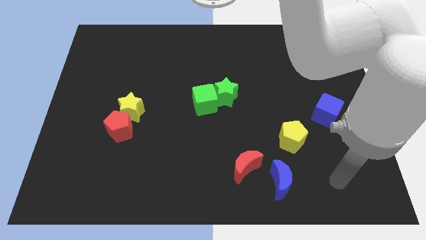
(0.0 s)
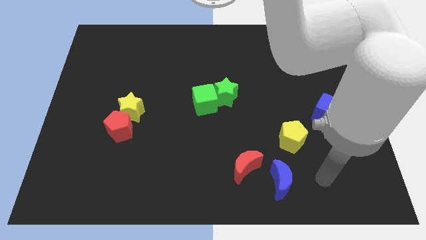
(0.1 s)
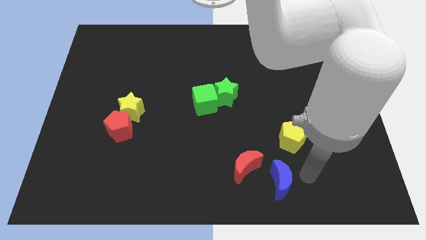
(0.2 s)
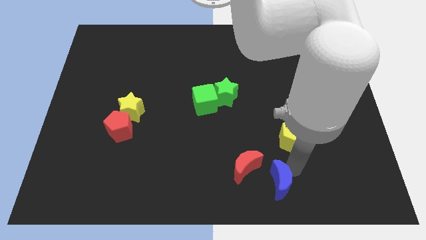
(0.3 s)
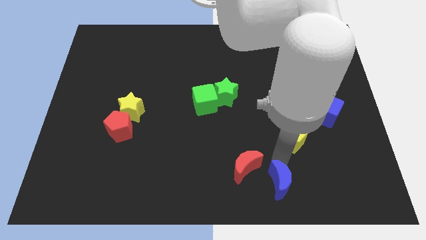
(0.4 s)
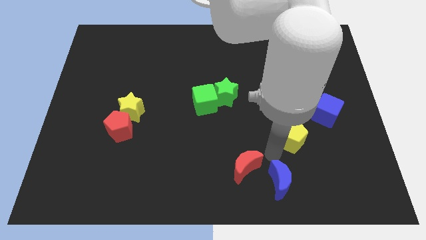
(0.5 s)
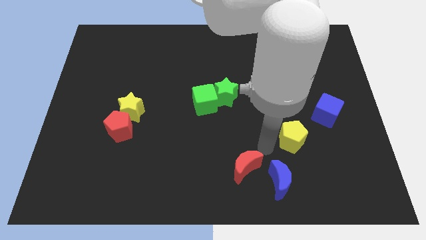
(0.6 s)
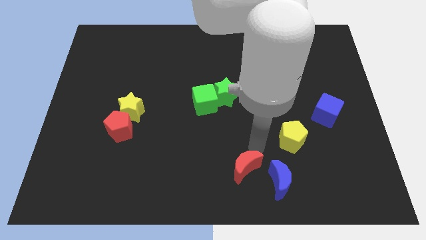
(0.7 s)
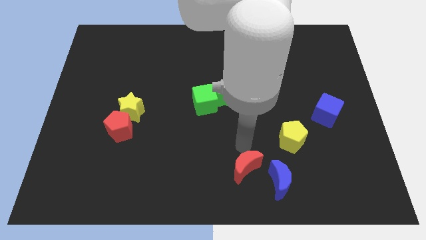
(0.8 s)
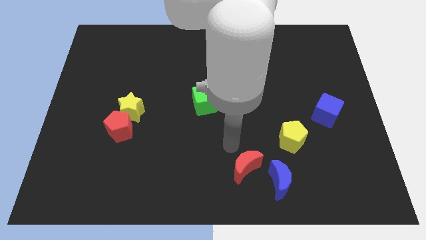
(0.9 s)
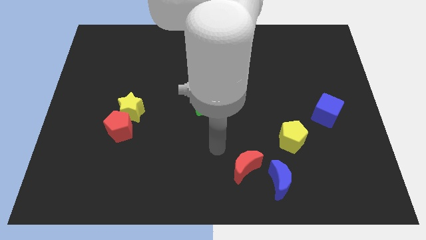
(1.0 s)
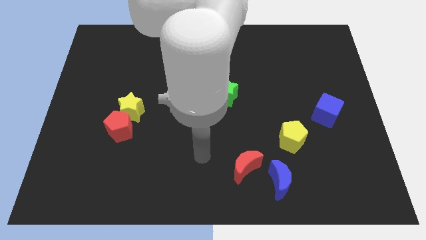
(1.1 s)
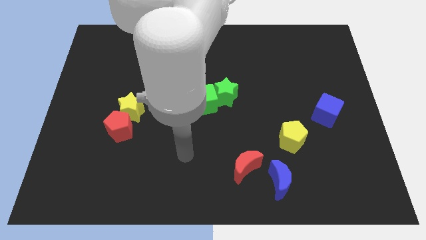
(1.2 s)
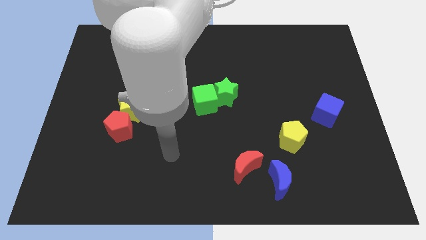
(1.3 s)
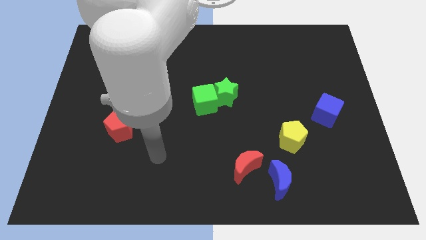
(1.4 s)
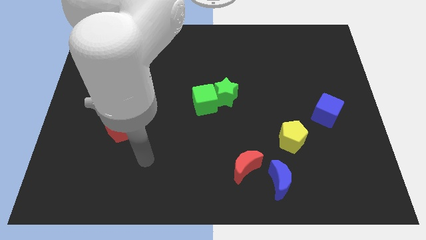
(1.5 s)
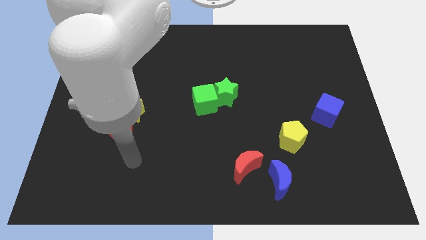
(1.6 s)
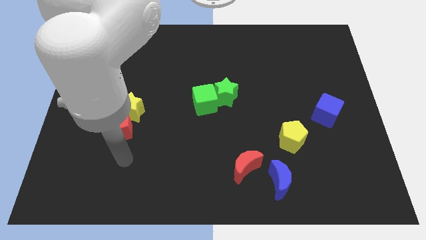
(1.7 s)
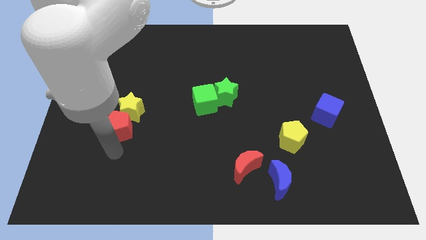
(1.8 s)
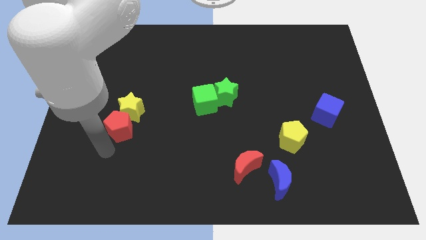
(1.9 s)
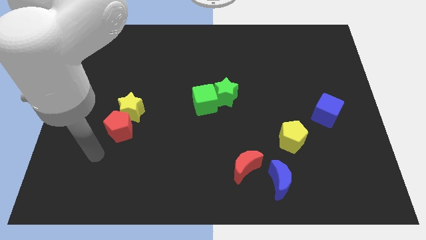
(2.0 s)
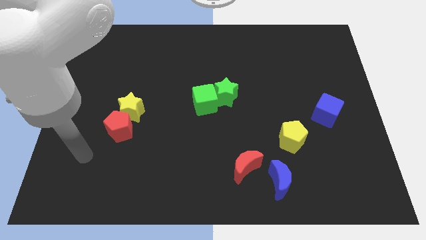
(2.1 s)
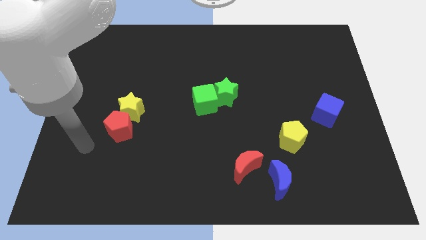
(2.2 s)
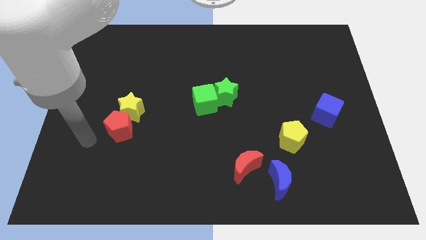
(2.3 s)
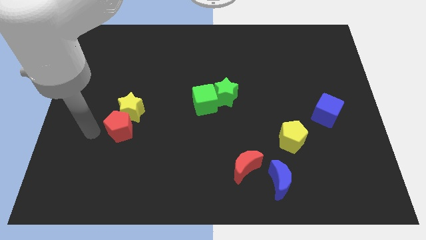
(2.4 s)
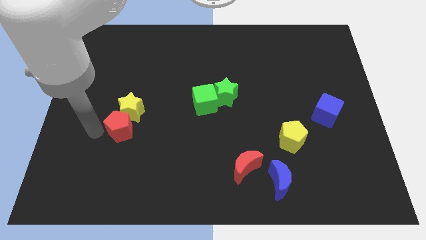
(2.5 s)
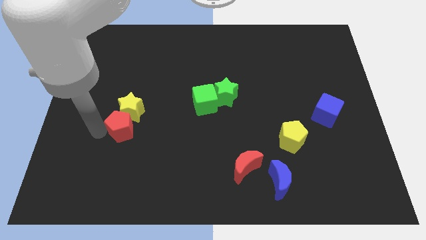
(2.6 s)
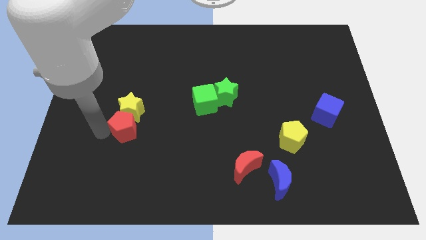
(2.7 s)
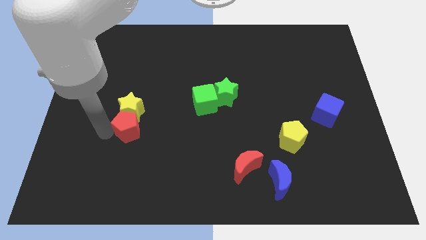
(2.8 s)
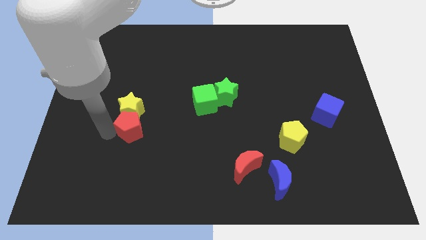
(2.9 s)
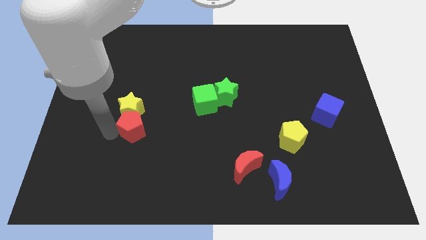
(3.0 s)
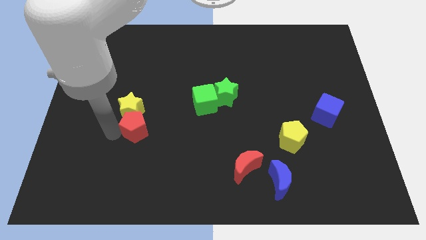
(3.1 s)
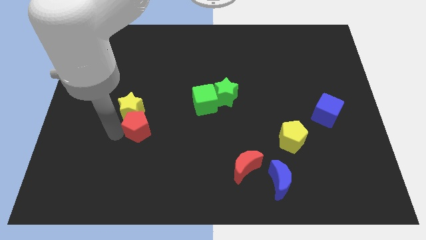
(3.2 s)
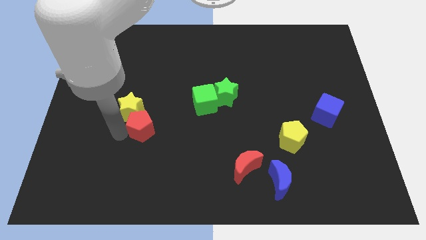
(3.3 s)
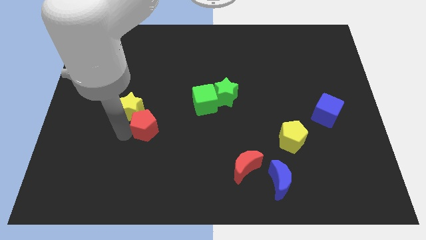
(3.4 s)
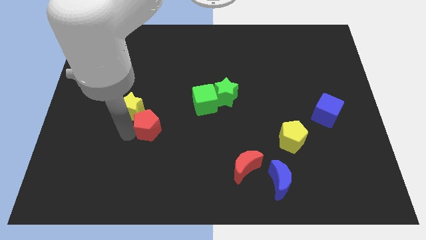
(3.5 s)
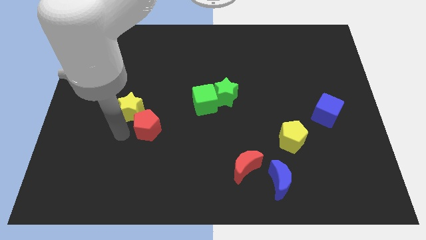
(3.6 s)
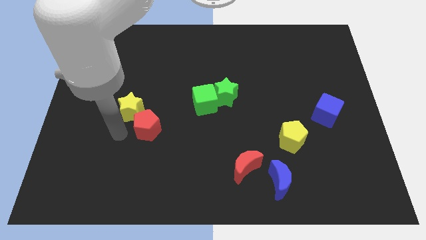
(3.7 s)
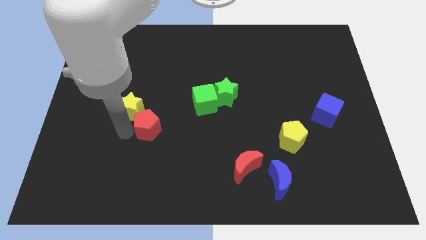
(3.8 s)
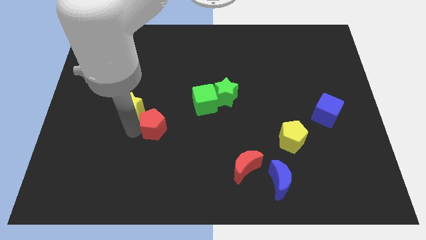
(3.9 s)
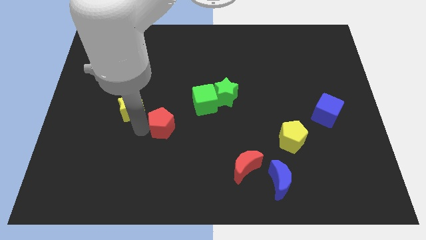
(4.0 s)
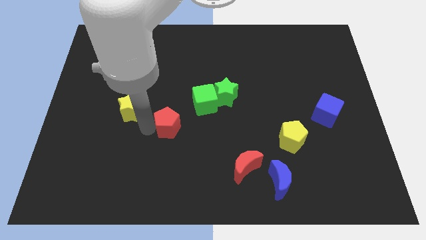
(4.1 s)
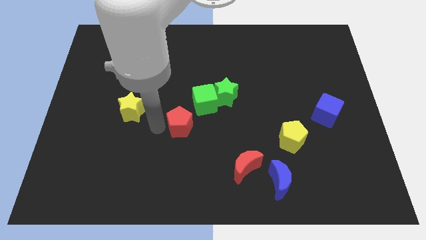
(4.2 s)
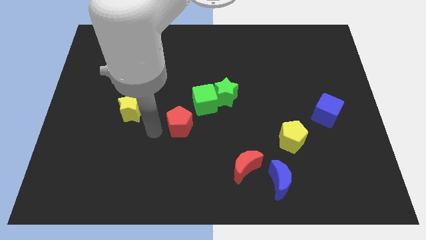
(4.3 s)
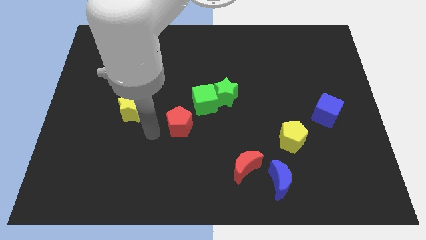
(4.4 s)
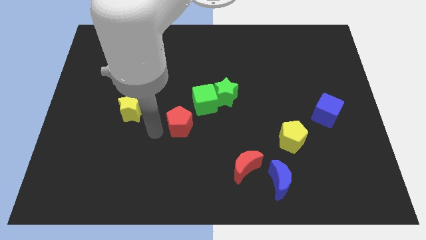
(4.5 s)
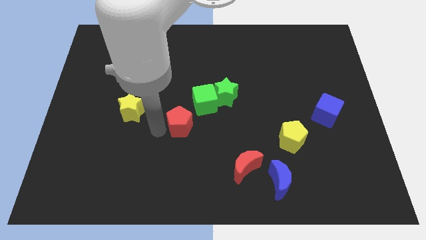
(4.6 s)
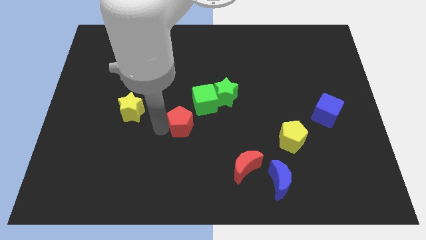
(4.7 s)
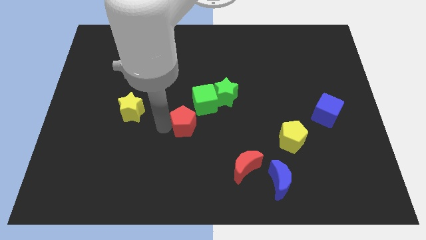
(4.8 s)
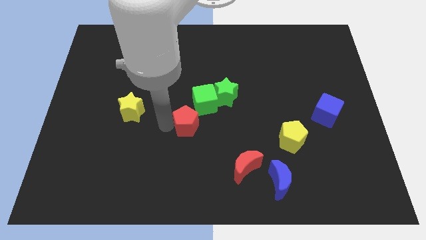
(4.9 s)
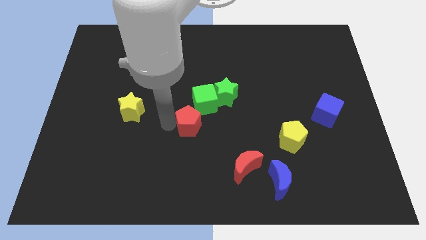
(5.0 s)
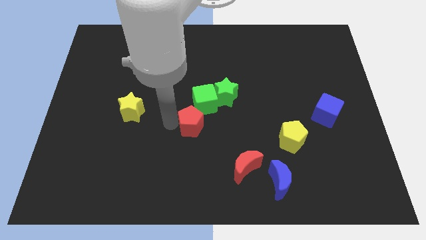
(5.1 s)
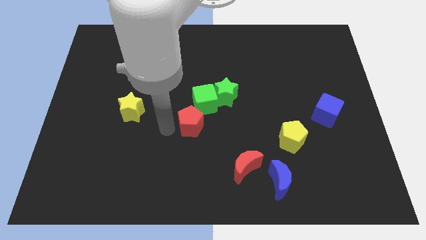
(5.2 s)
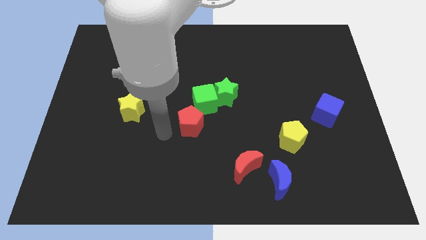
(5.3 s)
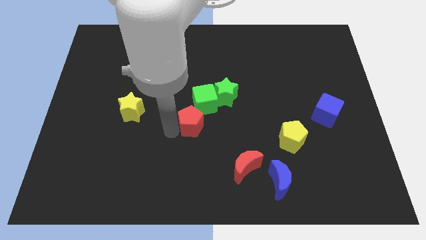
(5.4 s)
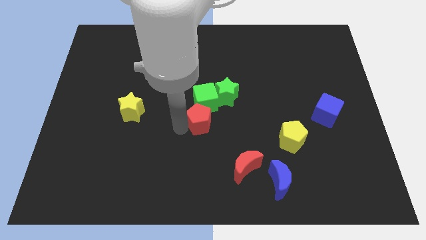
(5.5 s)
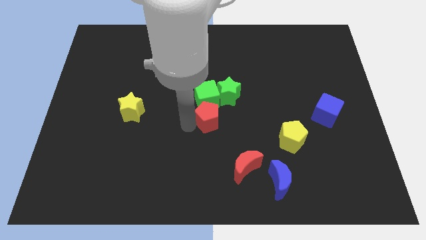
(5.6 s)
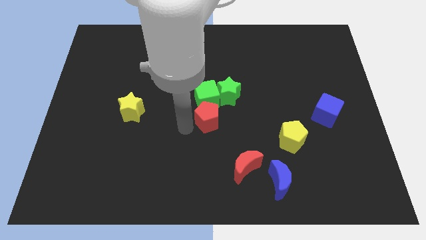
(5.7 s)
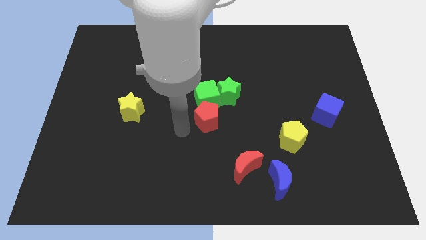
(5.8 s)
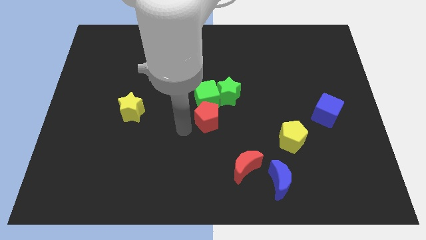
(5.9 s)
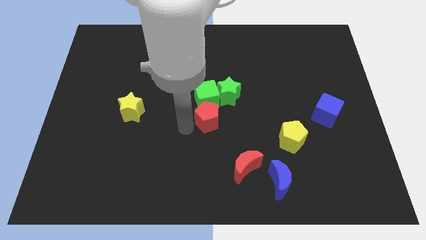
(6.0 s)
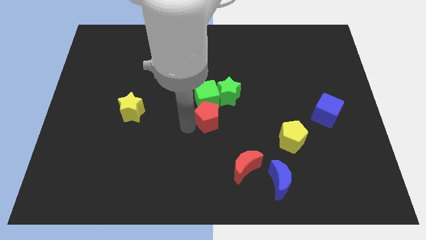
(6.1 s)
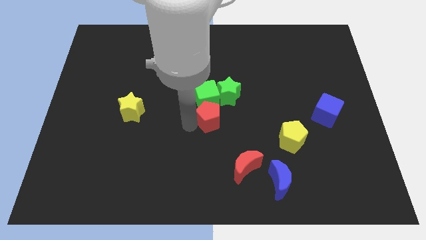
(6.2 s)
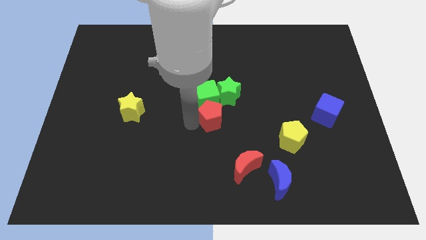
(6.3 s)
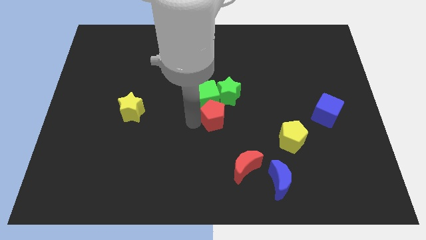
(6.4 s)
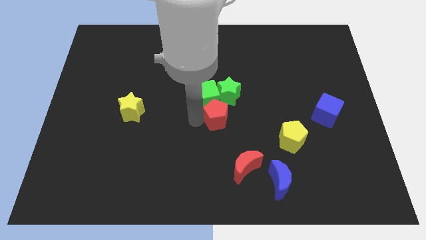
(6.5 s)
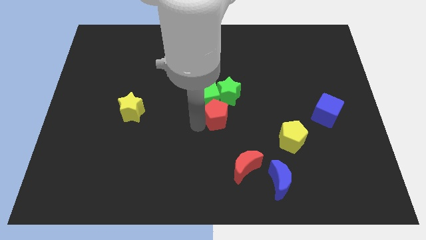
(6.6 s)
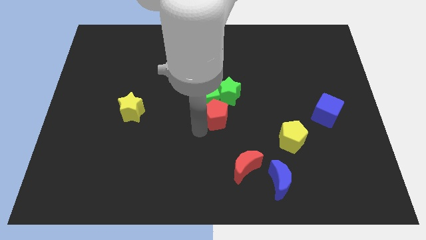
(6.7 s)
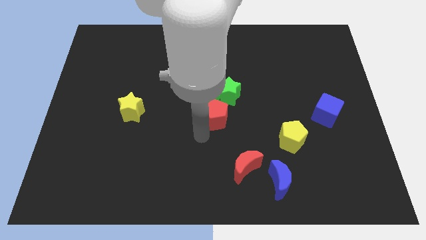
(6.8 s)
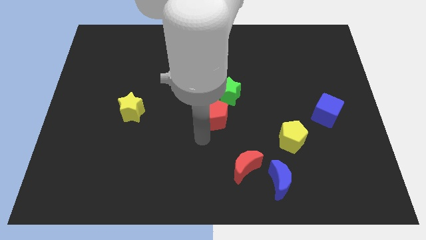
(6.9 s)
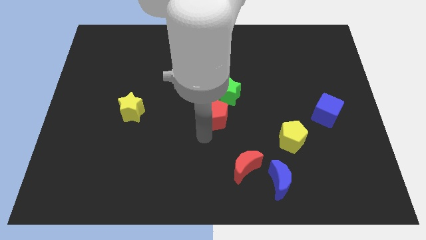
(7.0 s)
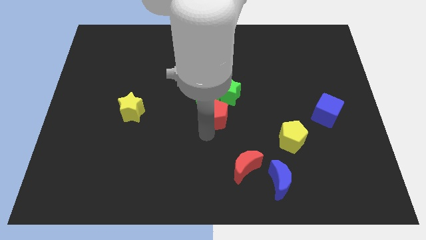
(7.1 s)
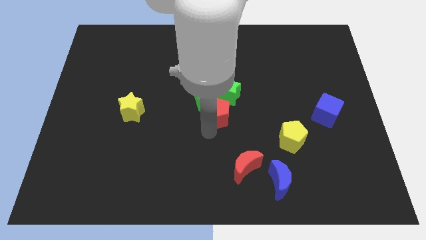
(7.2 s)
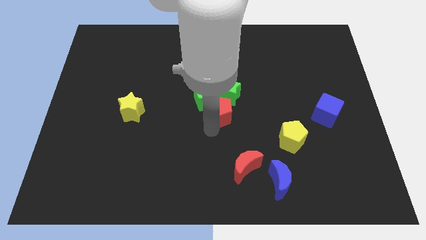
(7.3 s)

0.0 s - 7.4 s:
move the red pentagon close to the green star
